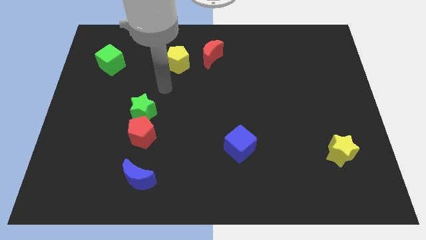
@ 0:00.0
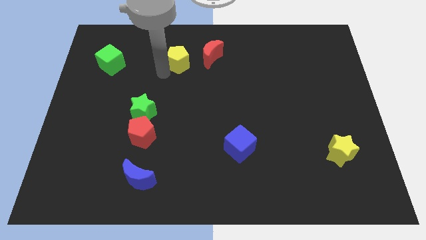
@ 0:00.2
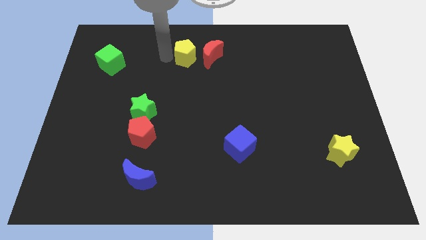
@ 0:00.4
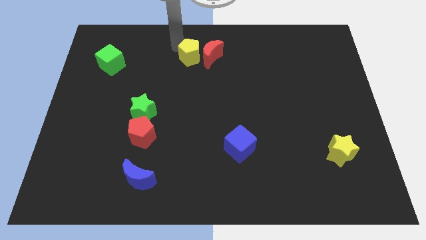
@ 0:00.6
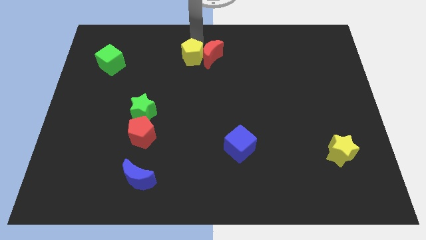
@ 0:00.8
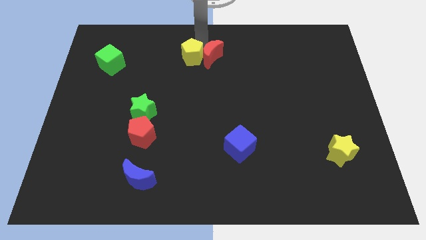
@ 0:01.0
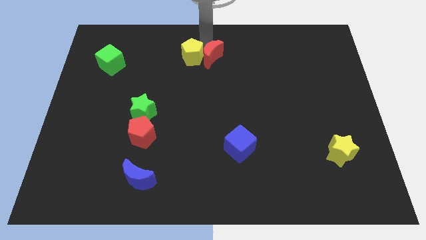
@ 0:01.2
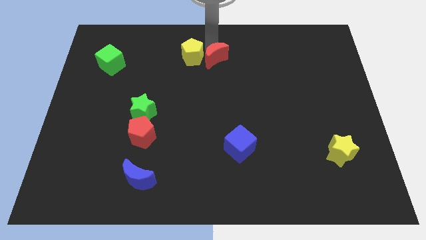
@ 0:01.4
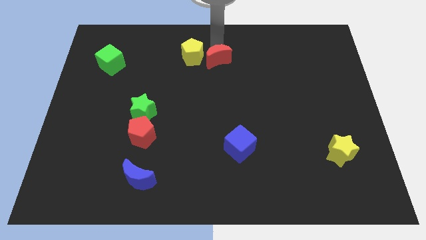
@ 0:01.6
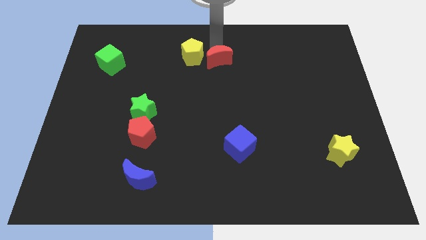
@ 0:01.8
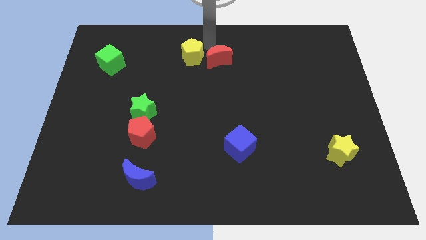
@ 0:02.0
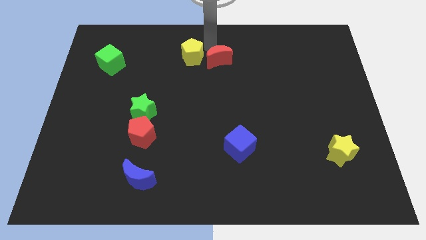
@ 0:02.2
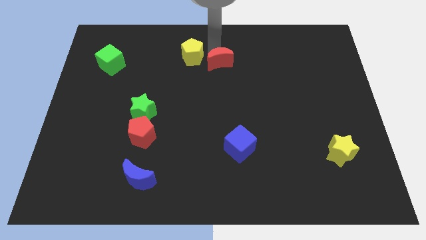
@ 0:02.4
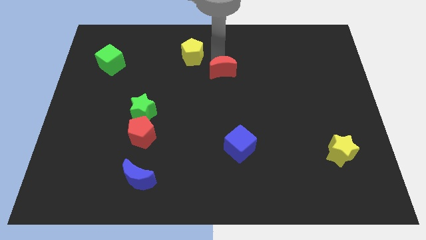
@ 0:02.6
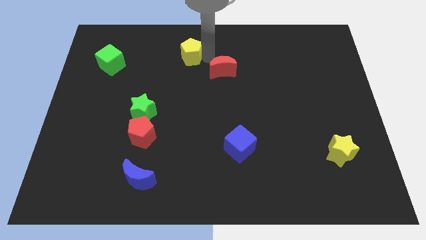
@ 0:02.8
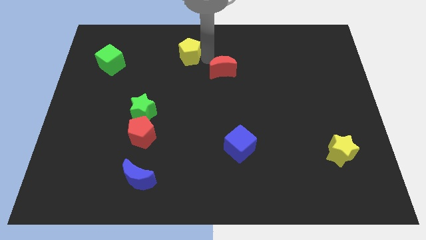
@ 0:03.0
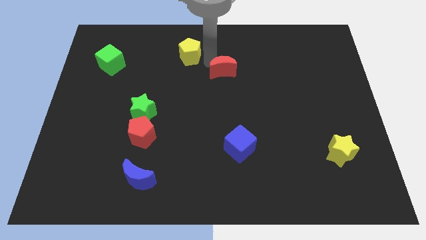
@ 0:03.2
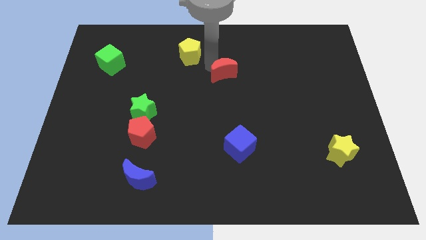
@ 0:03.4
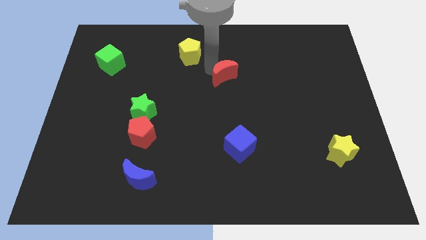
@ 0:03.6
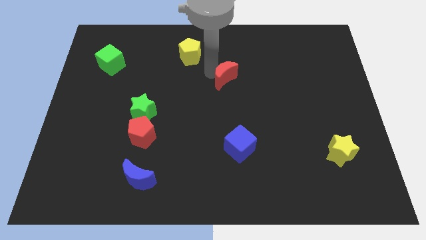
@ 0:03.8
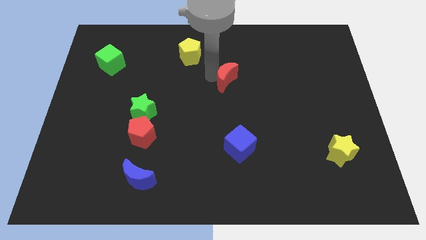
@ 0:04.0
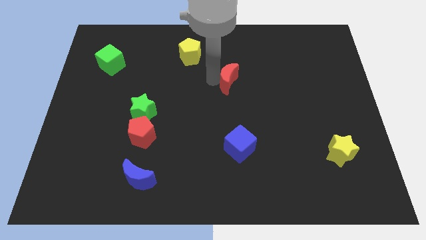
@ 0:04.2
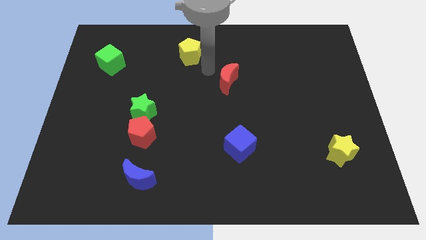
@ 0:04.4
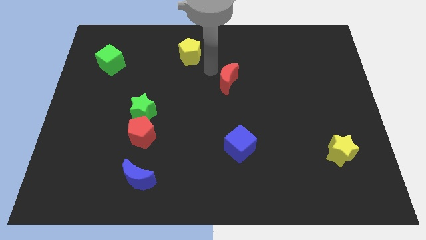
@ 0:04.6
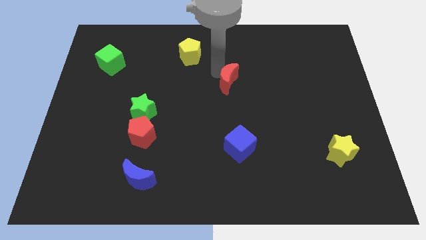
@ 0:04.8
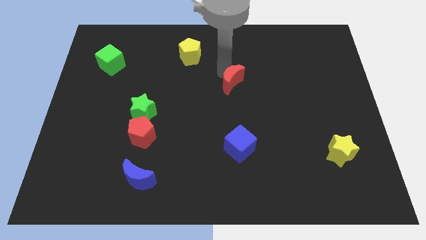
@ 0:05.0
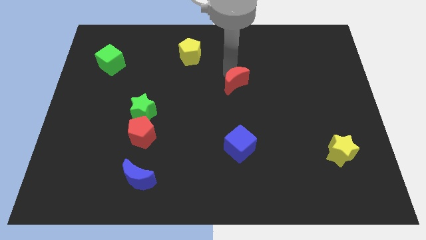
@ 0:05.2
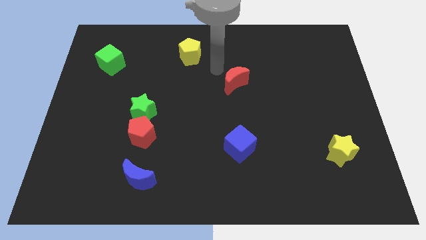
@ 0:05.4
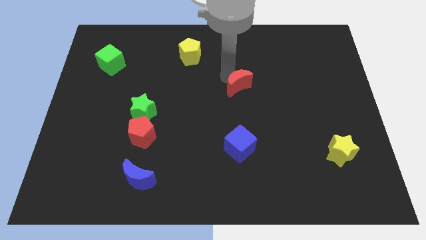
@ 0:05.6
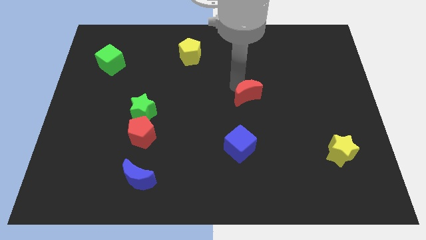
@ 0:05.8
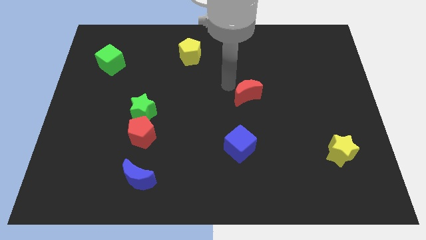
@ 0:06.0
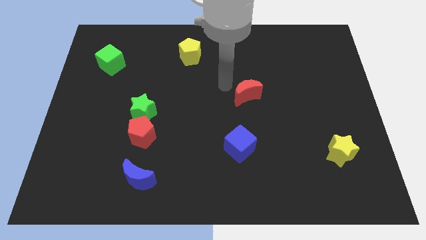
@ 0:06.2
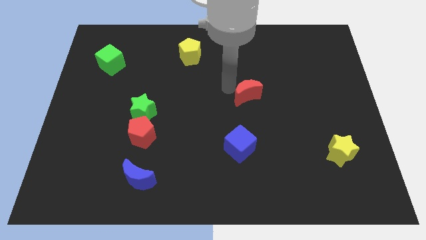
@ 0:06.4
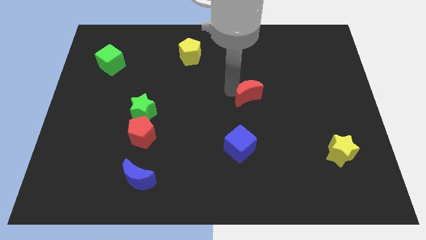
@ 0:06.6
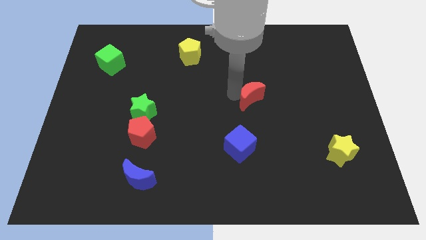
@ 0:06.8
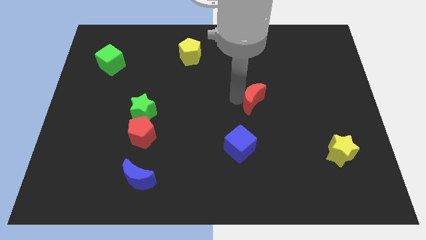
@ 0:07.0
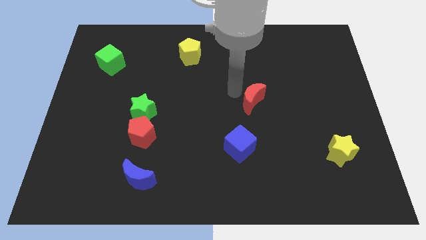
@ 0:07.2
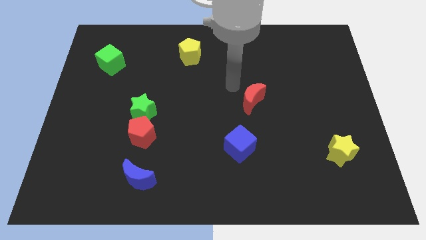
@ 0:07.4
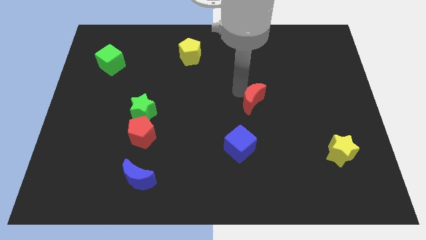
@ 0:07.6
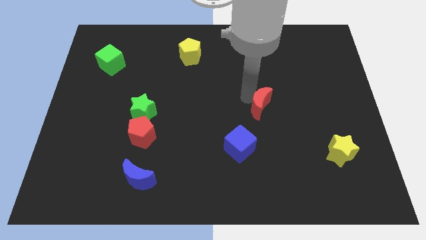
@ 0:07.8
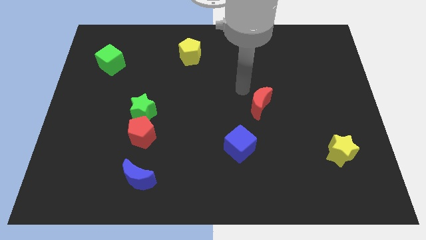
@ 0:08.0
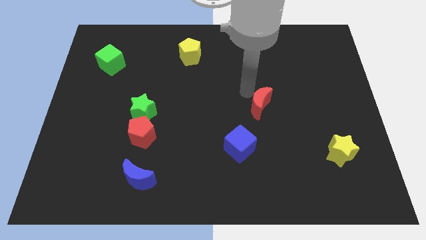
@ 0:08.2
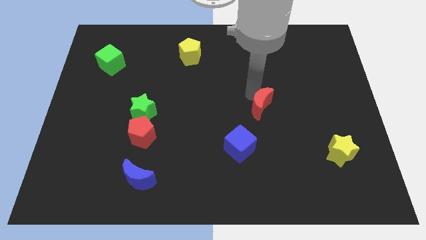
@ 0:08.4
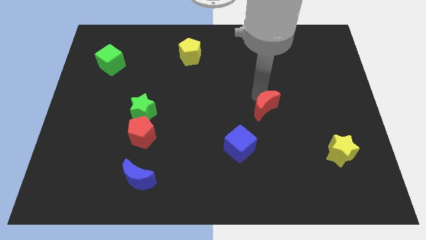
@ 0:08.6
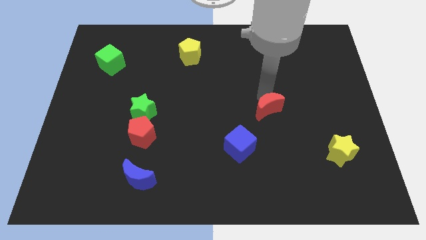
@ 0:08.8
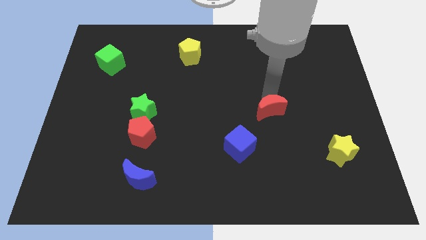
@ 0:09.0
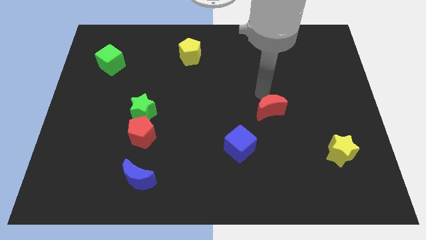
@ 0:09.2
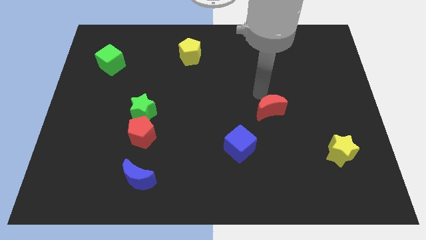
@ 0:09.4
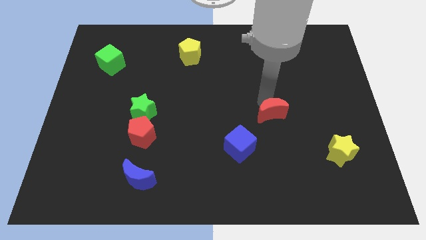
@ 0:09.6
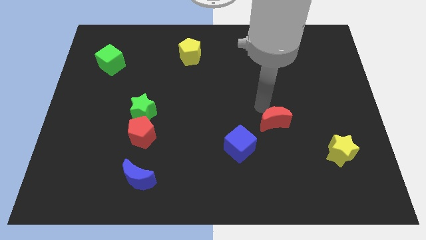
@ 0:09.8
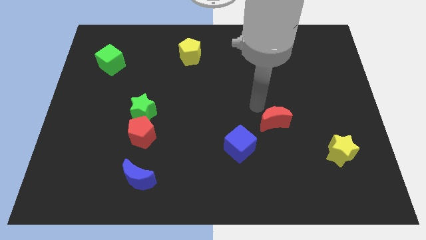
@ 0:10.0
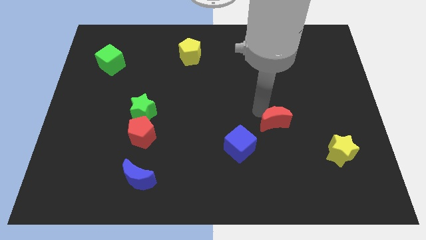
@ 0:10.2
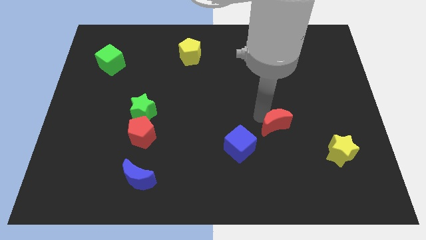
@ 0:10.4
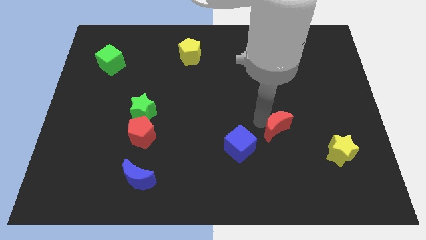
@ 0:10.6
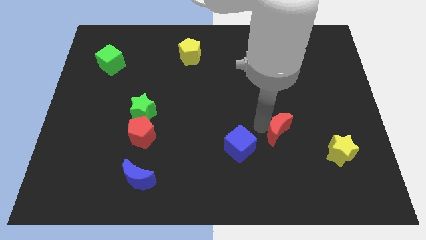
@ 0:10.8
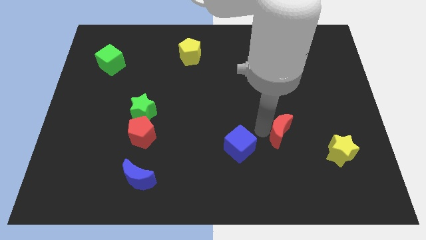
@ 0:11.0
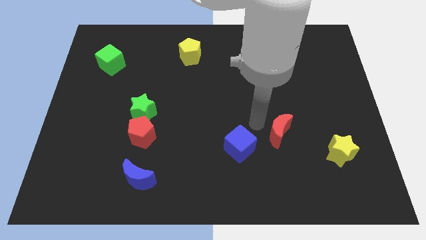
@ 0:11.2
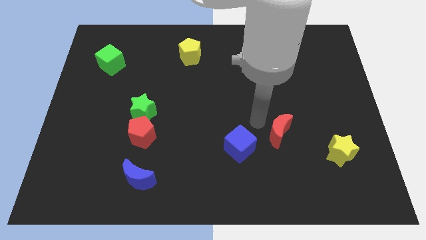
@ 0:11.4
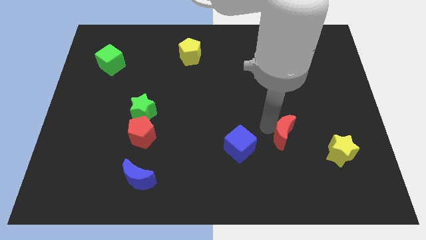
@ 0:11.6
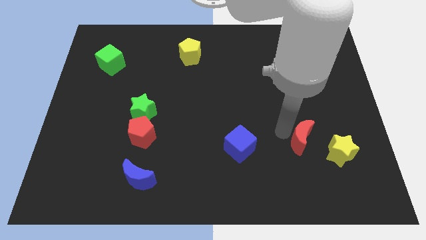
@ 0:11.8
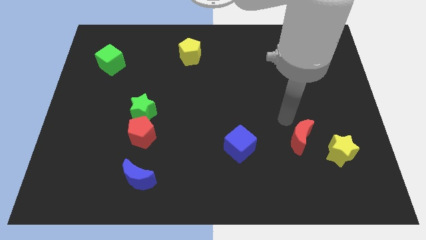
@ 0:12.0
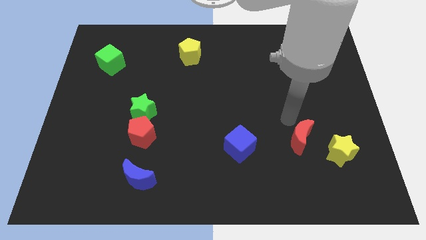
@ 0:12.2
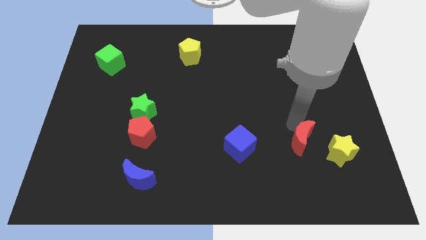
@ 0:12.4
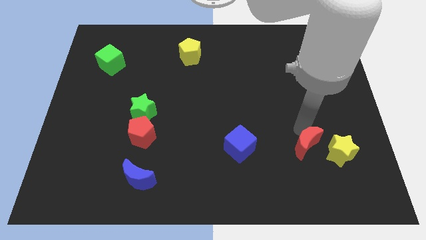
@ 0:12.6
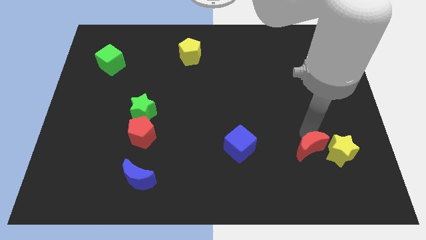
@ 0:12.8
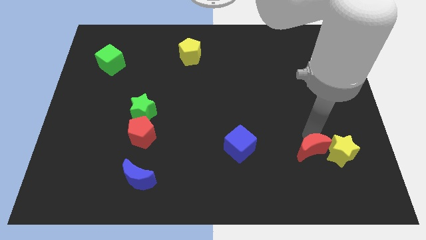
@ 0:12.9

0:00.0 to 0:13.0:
push the red moon to the bottom left of the yellow star

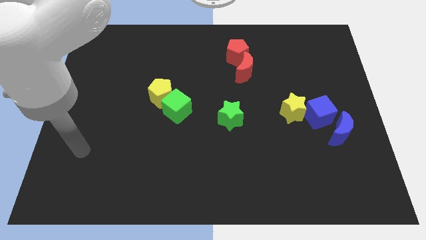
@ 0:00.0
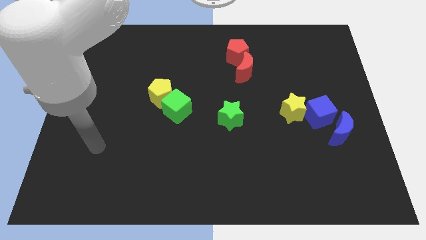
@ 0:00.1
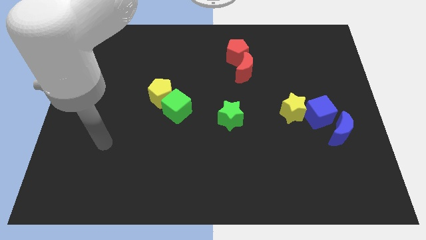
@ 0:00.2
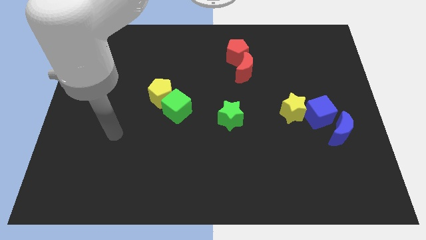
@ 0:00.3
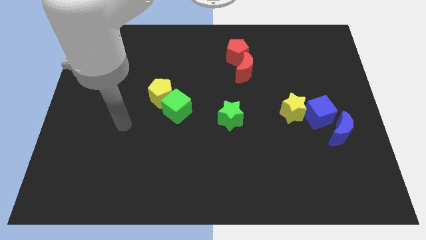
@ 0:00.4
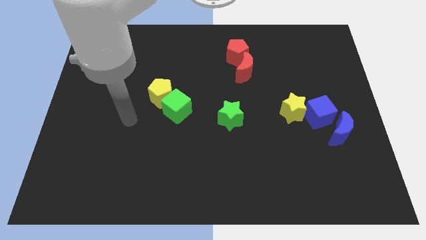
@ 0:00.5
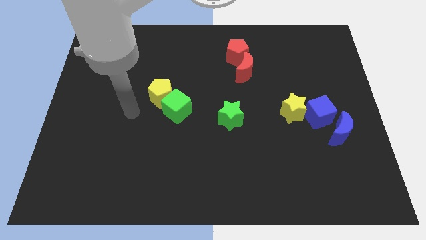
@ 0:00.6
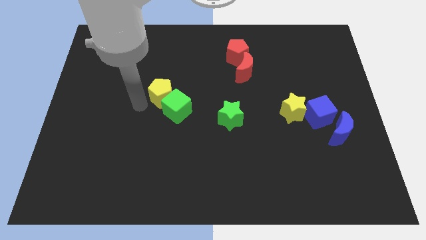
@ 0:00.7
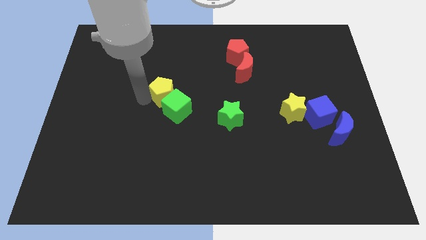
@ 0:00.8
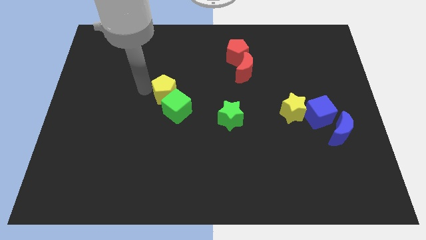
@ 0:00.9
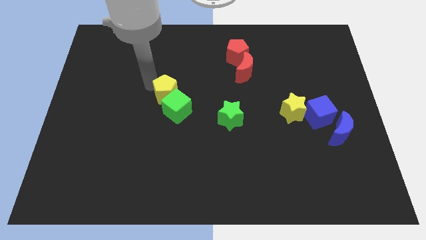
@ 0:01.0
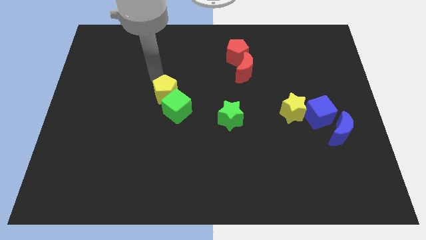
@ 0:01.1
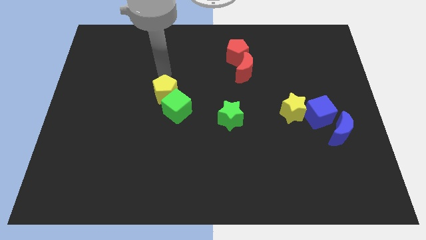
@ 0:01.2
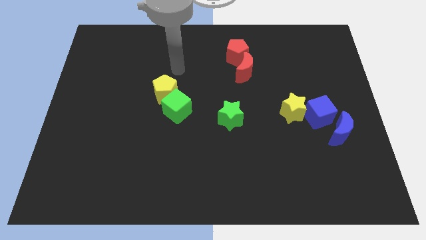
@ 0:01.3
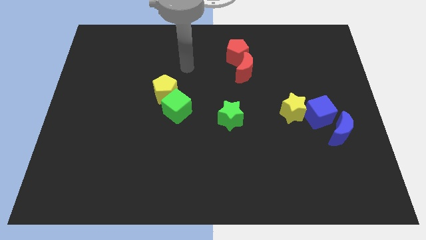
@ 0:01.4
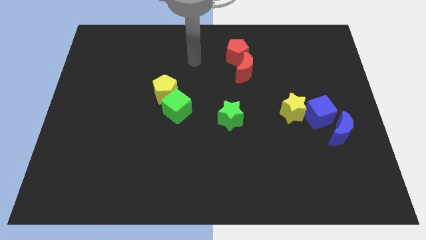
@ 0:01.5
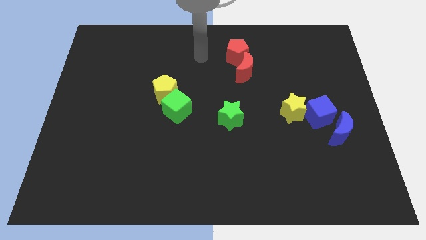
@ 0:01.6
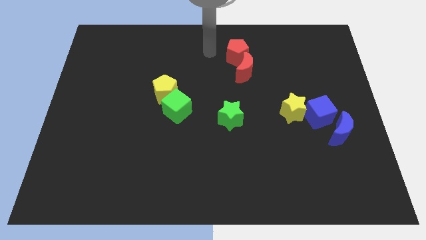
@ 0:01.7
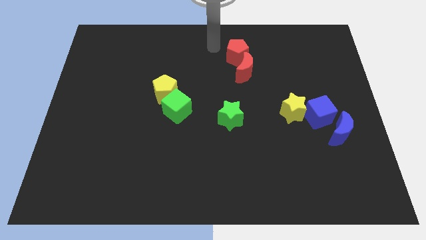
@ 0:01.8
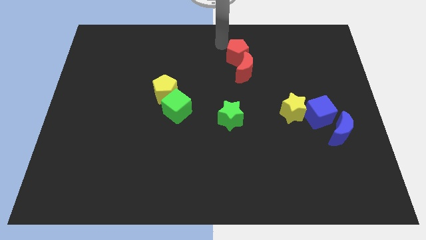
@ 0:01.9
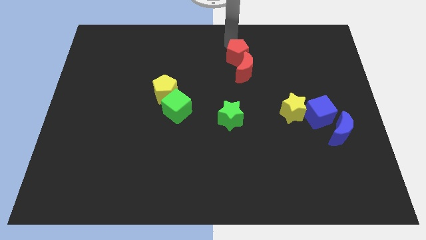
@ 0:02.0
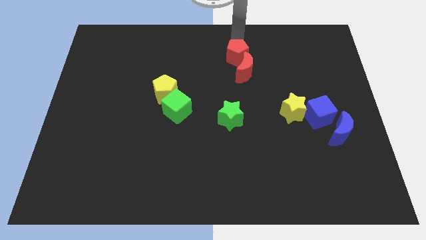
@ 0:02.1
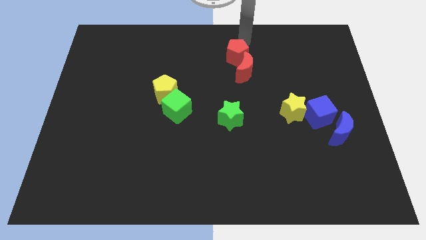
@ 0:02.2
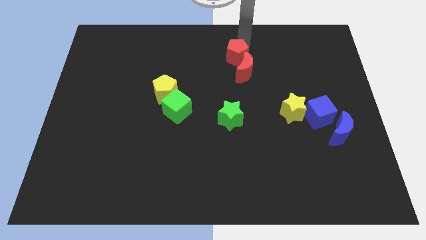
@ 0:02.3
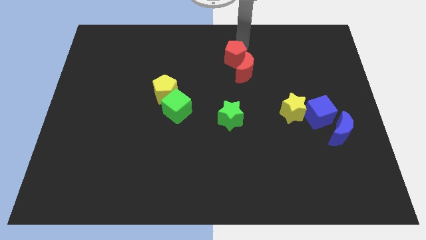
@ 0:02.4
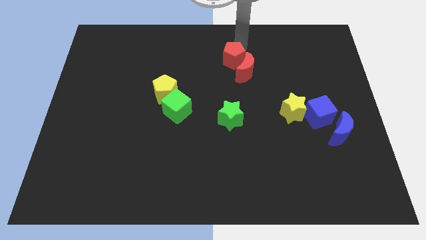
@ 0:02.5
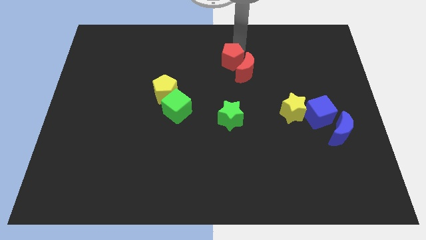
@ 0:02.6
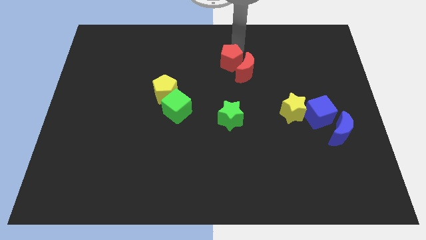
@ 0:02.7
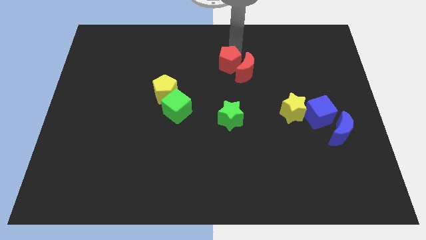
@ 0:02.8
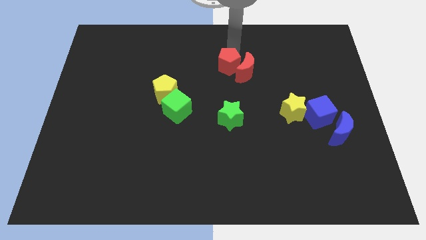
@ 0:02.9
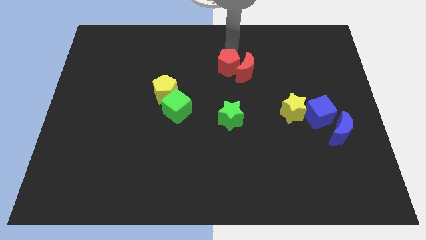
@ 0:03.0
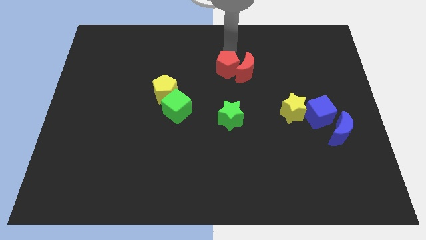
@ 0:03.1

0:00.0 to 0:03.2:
slide the red pentagon to the top side of the green star
